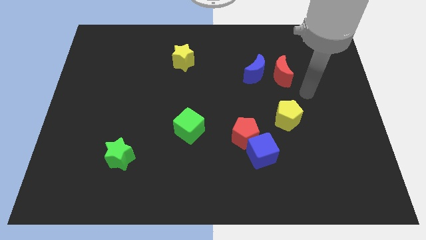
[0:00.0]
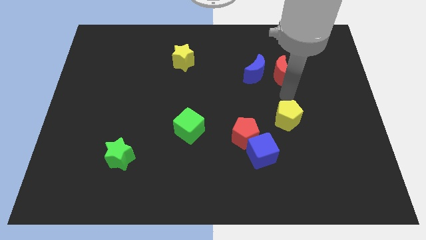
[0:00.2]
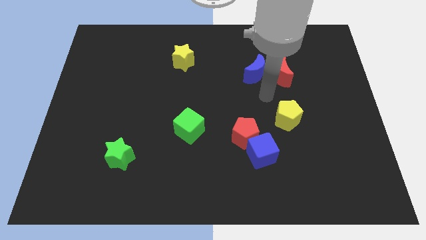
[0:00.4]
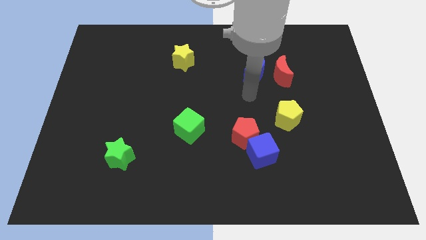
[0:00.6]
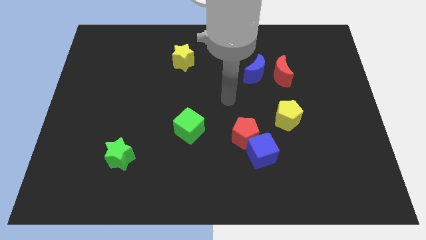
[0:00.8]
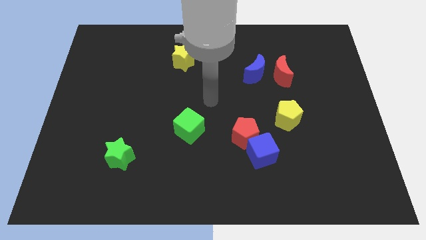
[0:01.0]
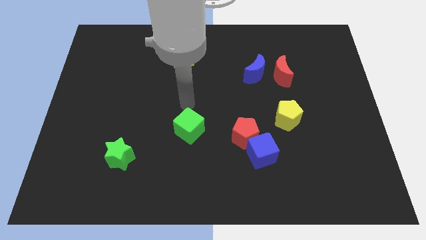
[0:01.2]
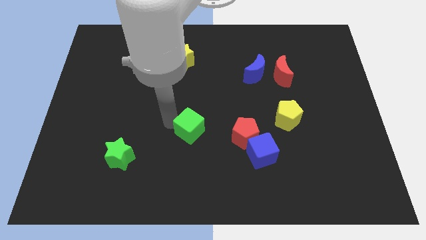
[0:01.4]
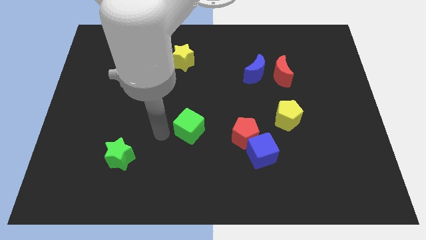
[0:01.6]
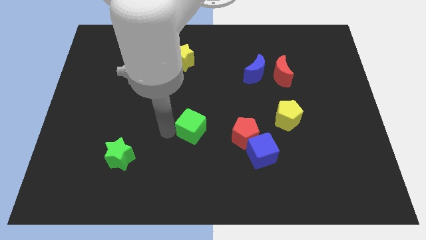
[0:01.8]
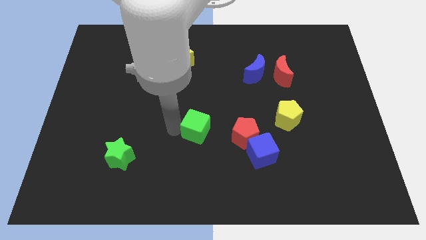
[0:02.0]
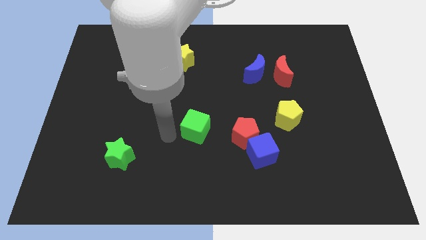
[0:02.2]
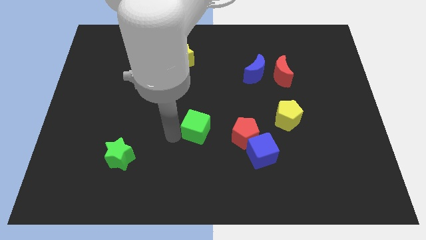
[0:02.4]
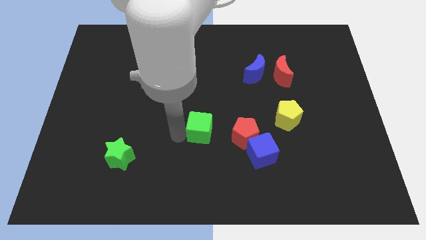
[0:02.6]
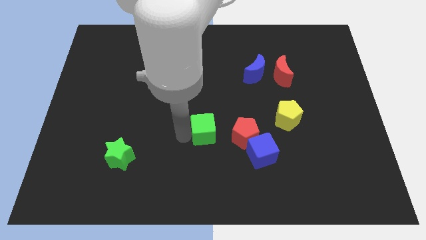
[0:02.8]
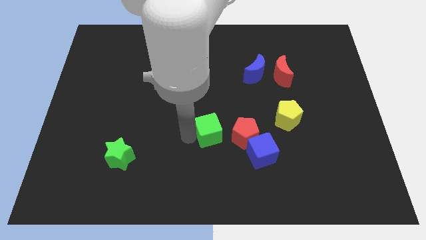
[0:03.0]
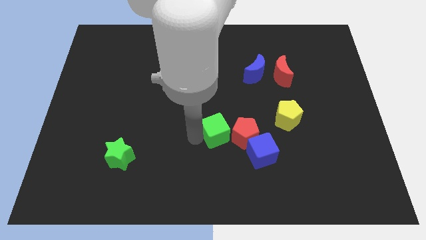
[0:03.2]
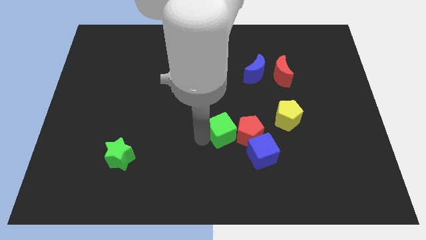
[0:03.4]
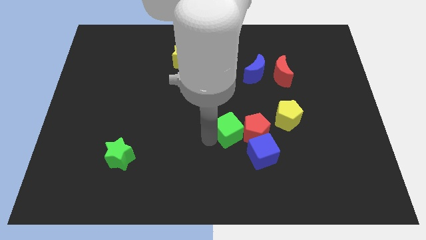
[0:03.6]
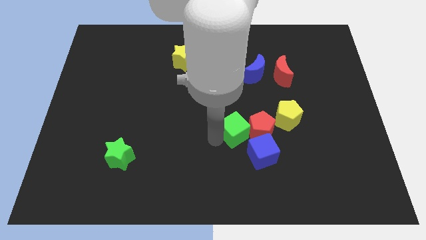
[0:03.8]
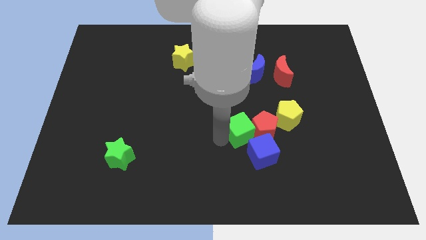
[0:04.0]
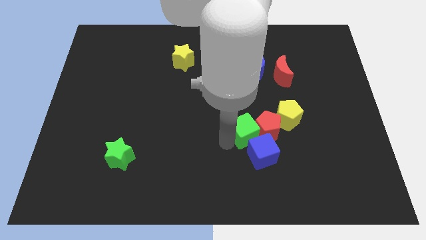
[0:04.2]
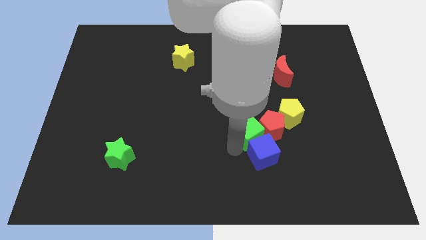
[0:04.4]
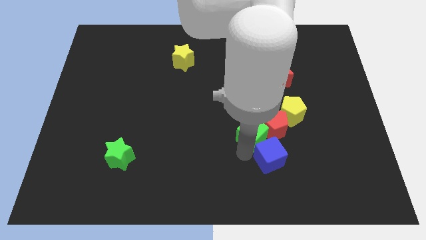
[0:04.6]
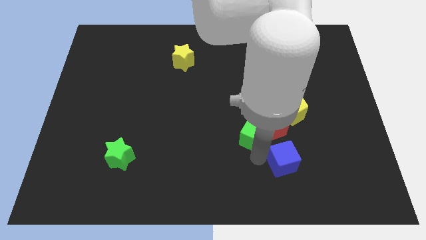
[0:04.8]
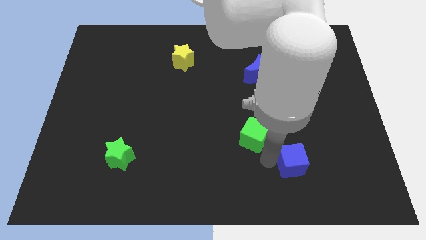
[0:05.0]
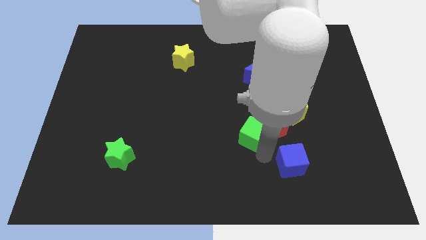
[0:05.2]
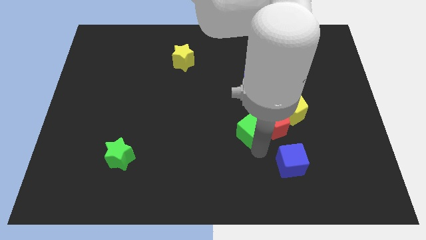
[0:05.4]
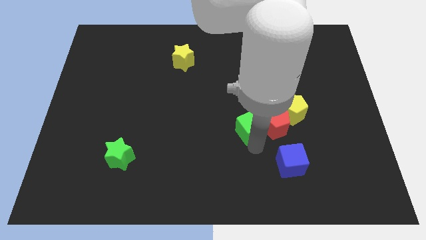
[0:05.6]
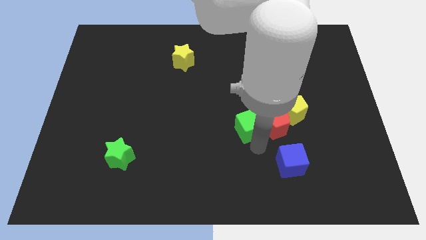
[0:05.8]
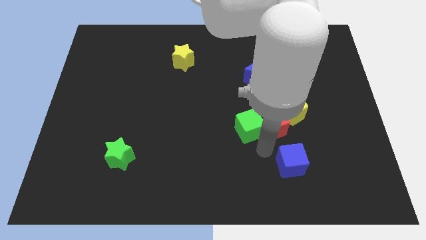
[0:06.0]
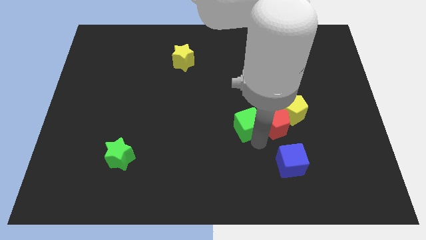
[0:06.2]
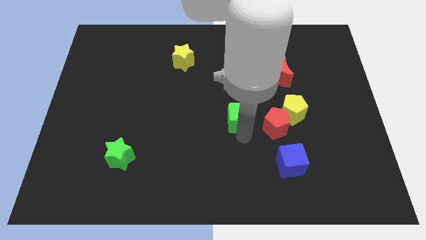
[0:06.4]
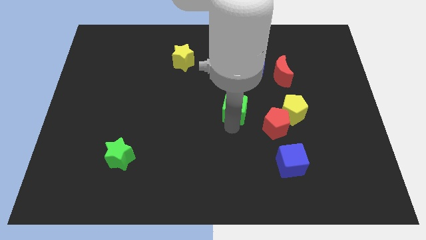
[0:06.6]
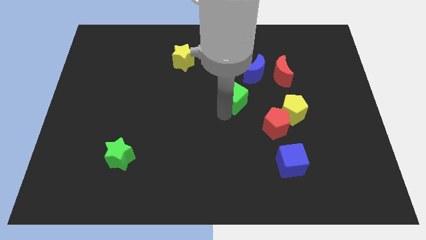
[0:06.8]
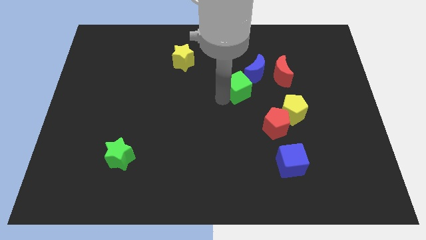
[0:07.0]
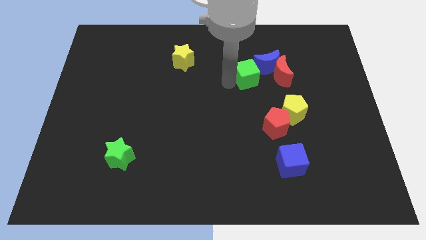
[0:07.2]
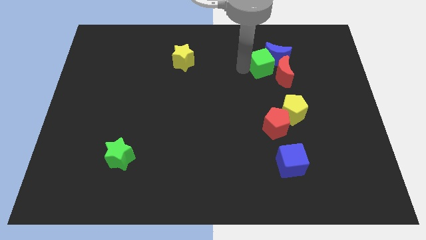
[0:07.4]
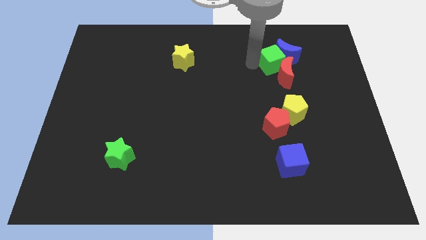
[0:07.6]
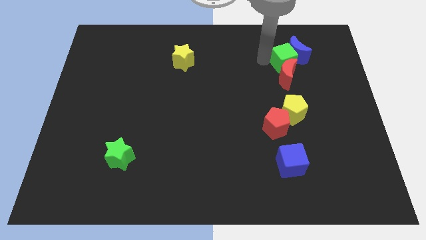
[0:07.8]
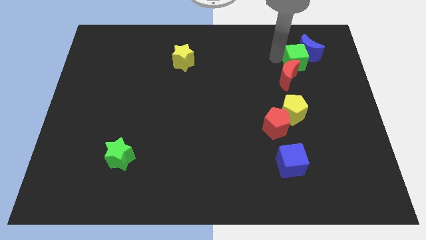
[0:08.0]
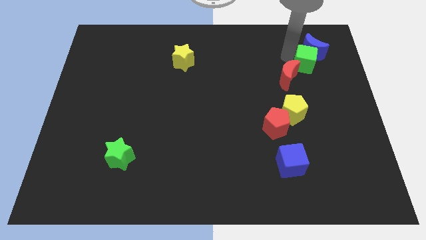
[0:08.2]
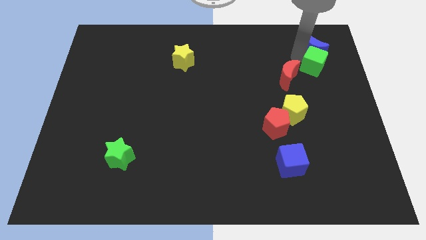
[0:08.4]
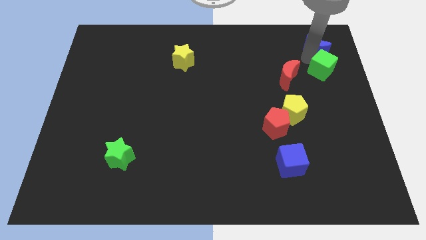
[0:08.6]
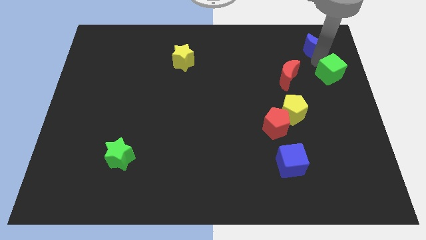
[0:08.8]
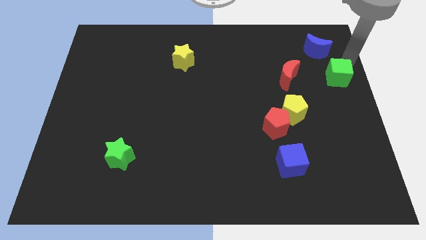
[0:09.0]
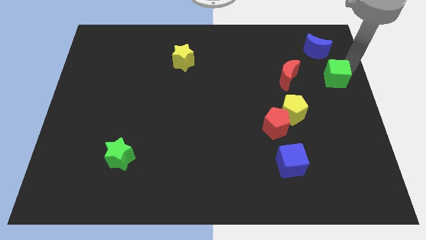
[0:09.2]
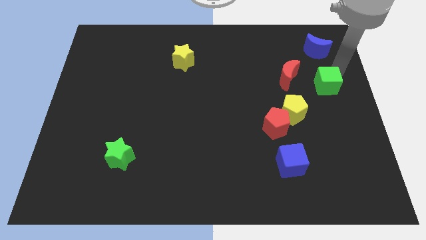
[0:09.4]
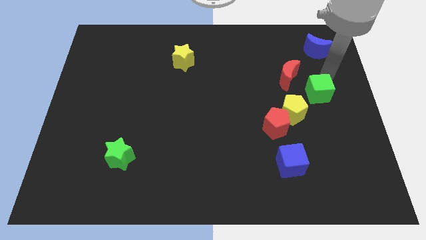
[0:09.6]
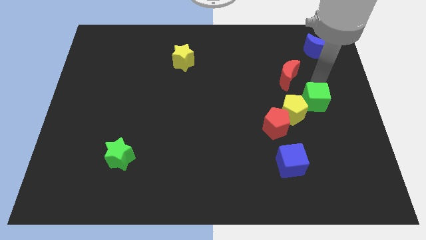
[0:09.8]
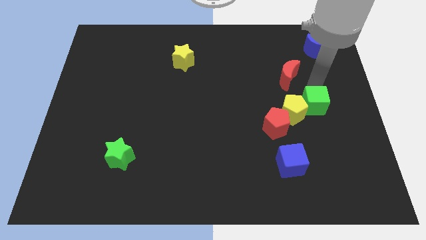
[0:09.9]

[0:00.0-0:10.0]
slide the green cube next to the yellow pentagon

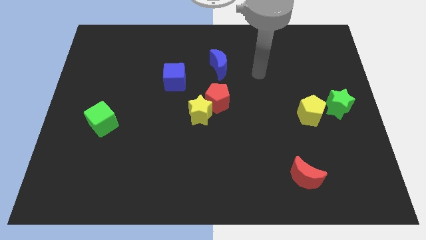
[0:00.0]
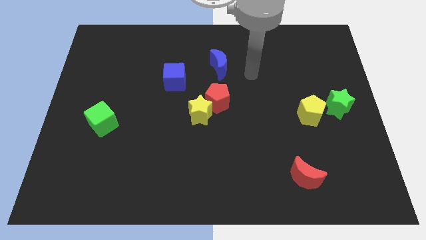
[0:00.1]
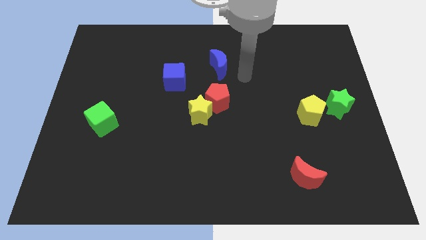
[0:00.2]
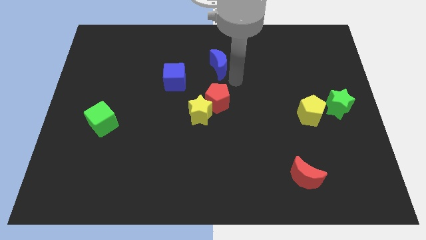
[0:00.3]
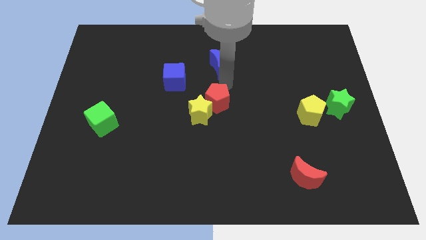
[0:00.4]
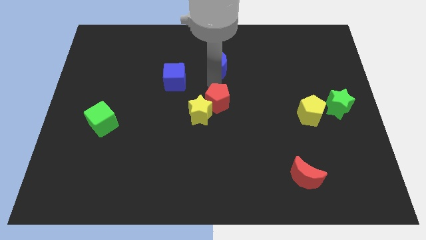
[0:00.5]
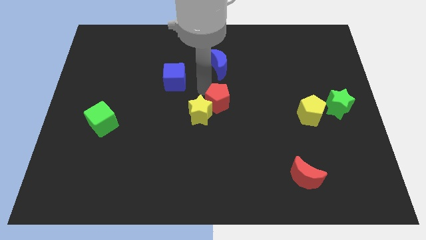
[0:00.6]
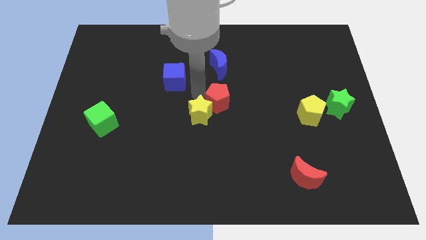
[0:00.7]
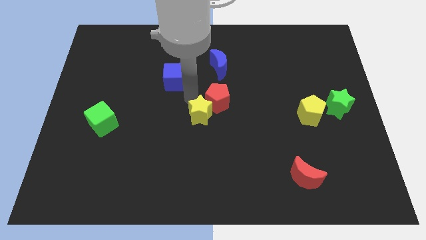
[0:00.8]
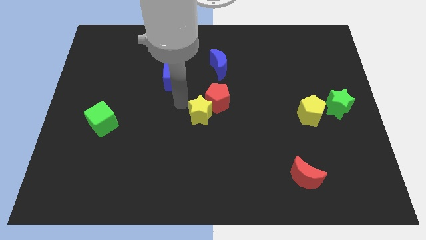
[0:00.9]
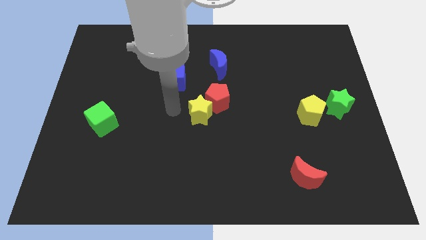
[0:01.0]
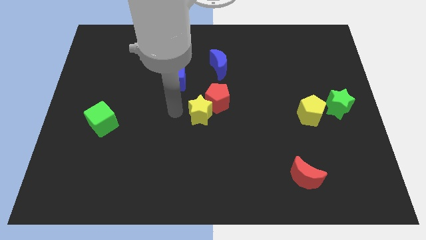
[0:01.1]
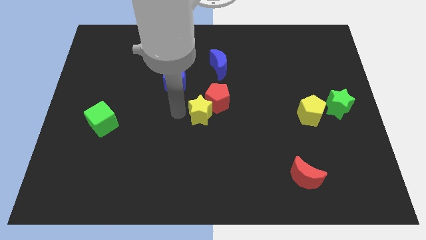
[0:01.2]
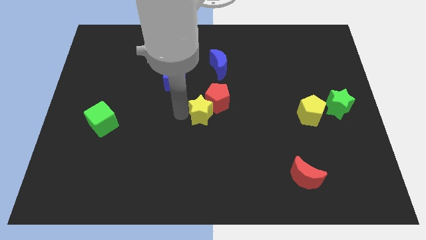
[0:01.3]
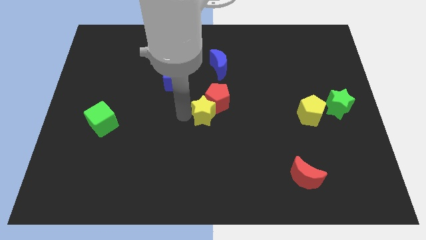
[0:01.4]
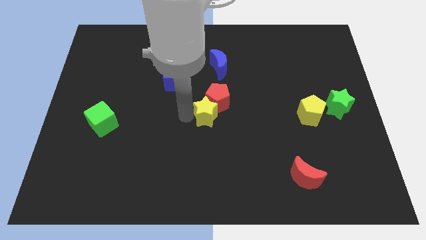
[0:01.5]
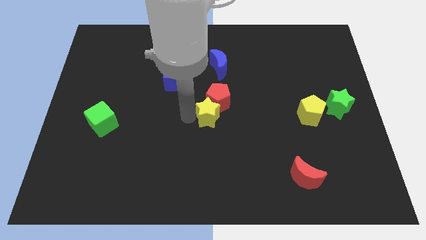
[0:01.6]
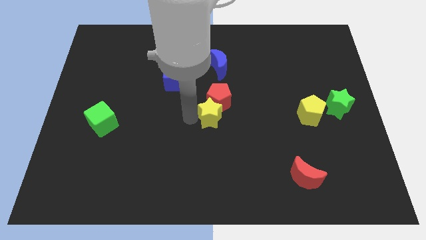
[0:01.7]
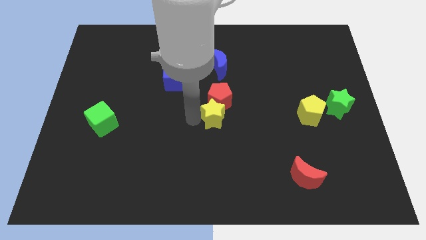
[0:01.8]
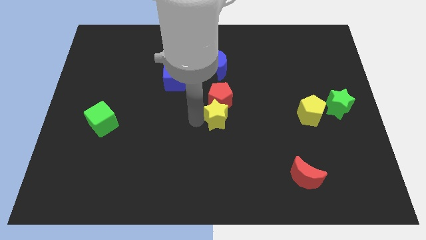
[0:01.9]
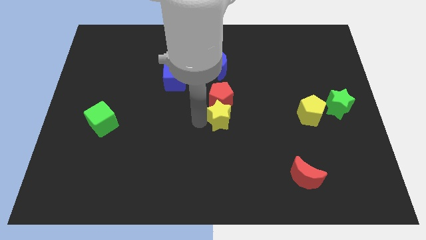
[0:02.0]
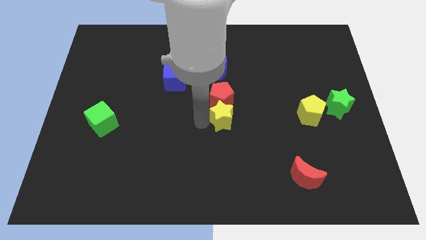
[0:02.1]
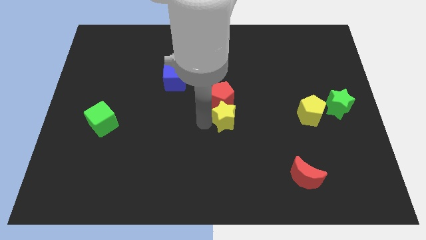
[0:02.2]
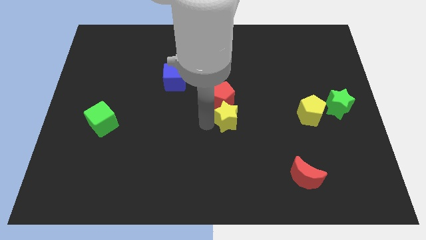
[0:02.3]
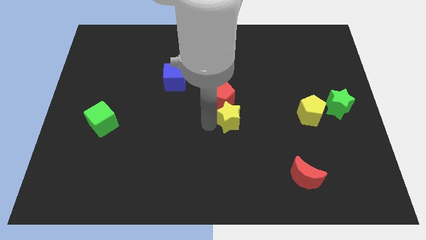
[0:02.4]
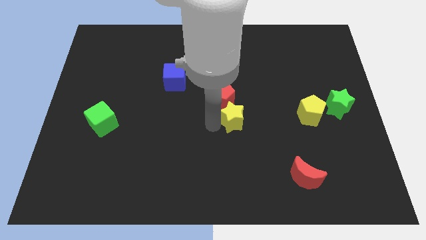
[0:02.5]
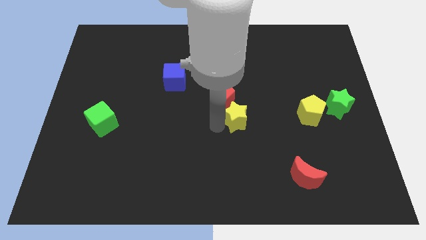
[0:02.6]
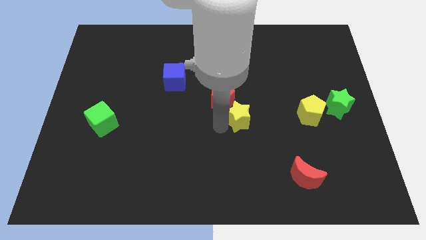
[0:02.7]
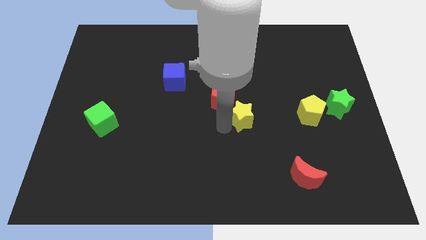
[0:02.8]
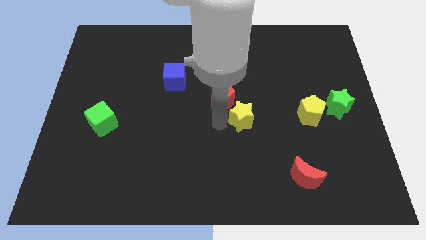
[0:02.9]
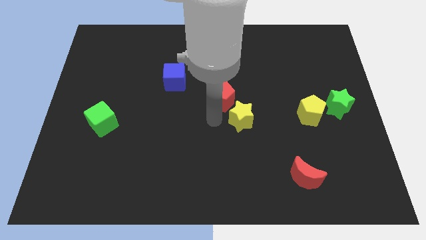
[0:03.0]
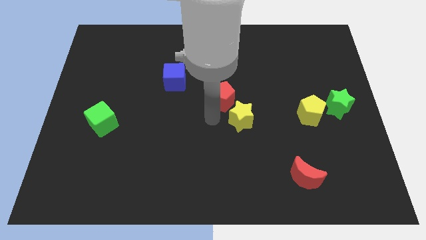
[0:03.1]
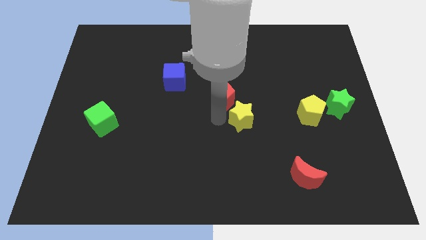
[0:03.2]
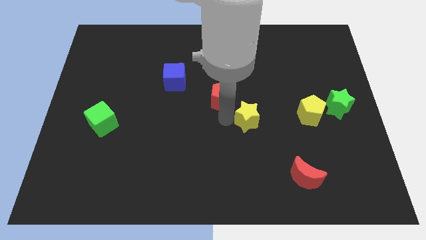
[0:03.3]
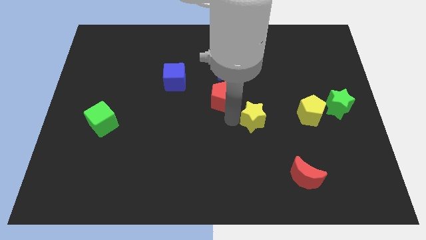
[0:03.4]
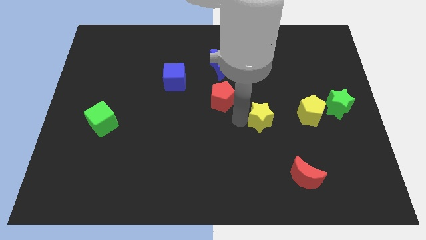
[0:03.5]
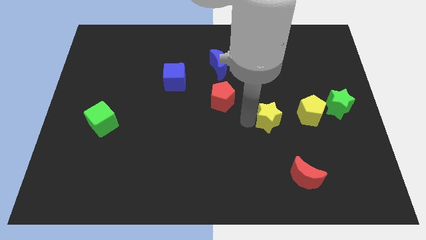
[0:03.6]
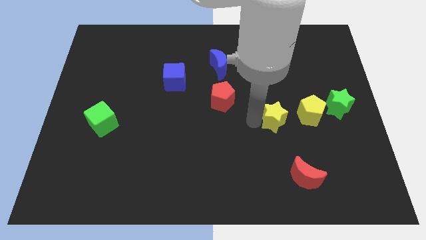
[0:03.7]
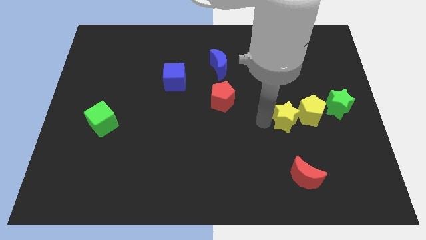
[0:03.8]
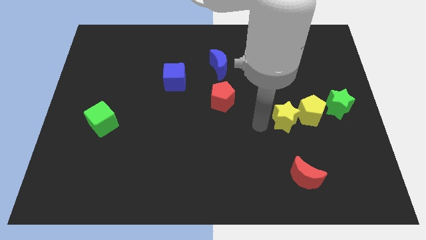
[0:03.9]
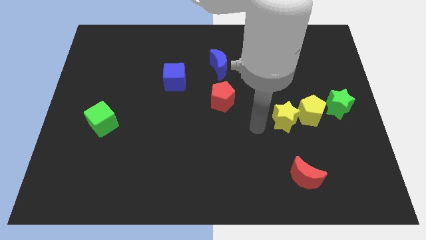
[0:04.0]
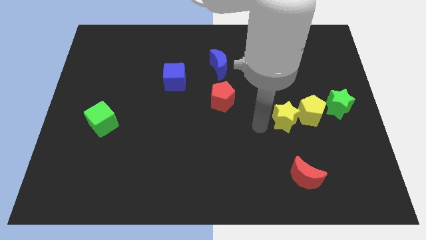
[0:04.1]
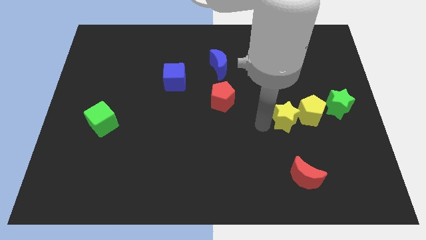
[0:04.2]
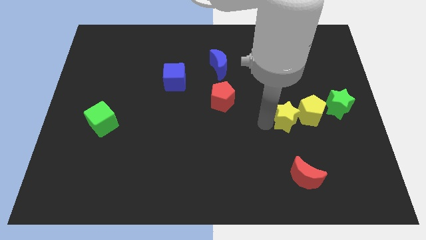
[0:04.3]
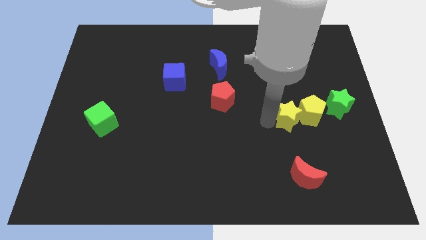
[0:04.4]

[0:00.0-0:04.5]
push the yellow star towards the yellow pentagon
